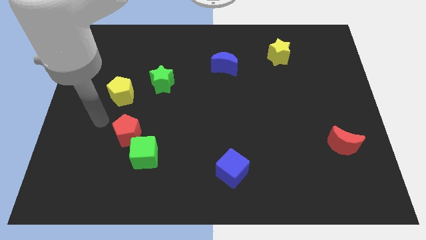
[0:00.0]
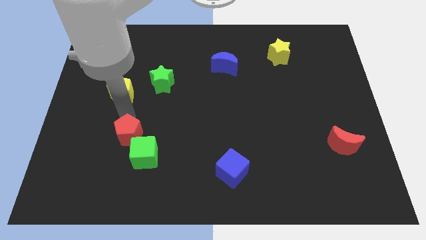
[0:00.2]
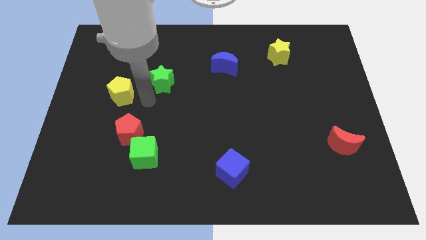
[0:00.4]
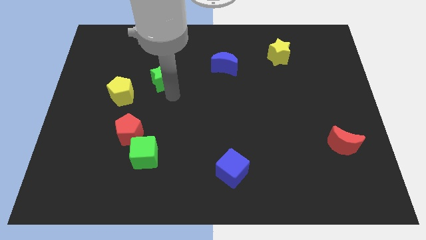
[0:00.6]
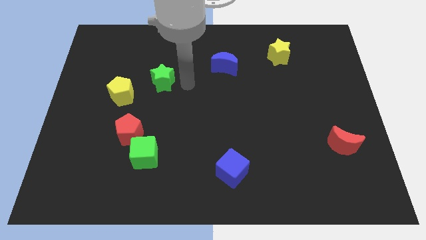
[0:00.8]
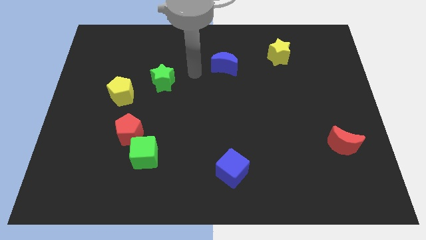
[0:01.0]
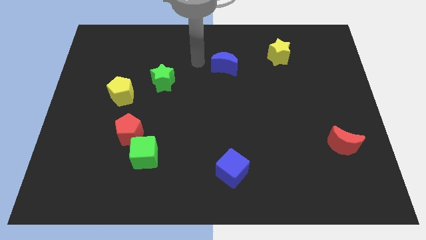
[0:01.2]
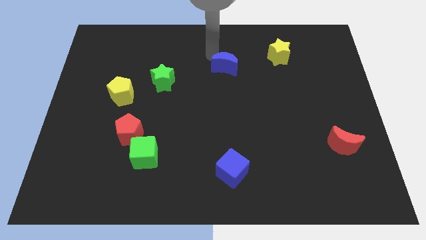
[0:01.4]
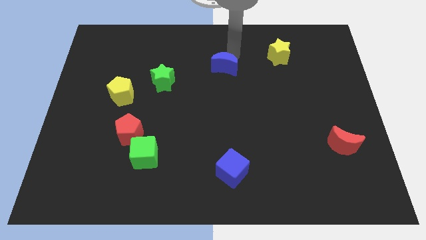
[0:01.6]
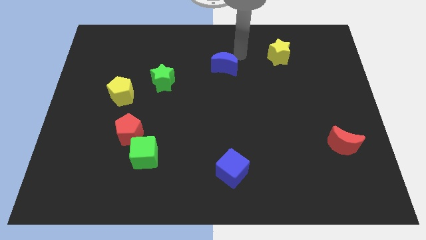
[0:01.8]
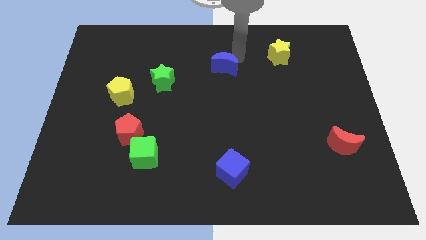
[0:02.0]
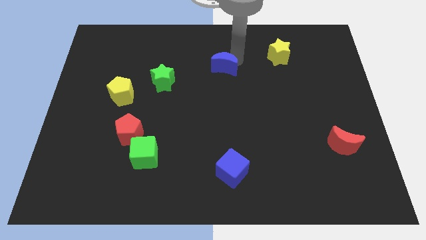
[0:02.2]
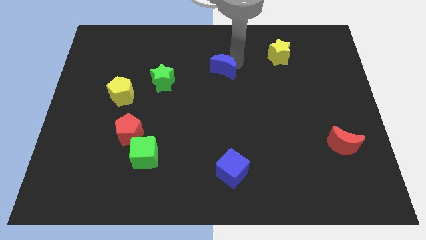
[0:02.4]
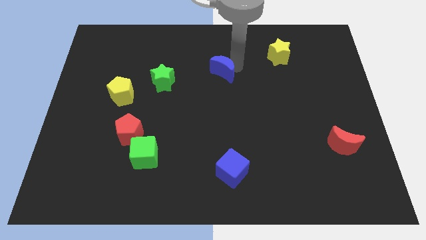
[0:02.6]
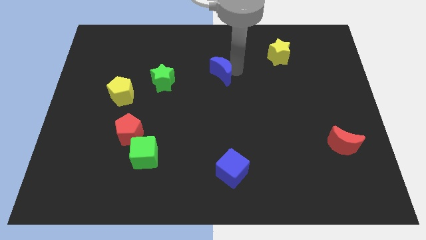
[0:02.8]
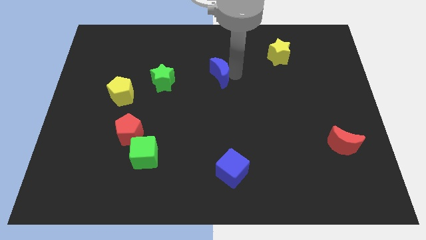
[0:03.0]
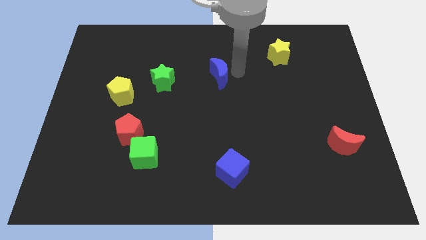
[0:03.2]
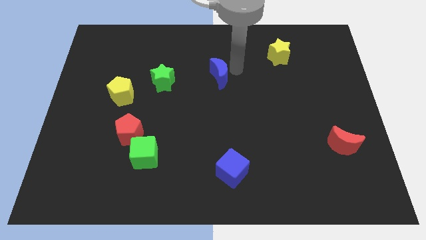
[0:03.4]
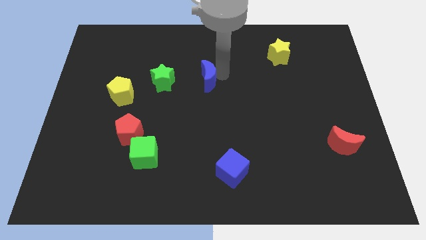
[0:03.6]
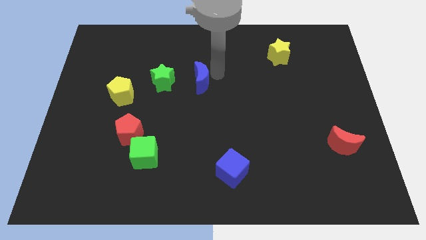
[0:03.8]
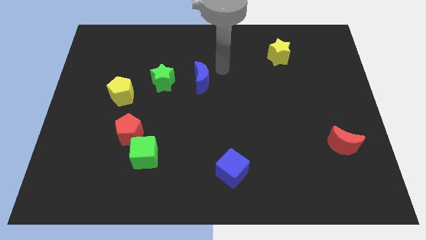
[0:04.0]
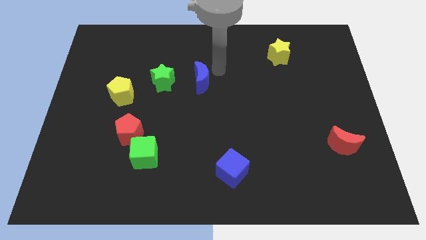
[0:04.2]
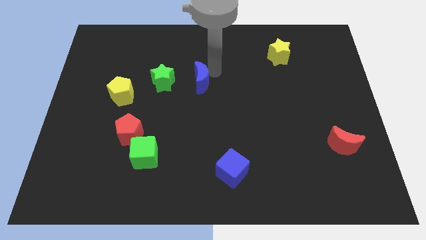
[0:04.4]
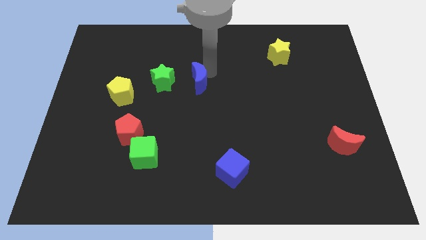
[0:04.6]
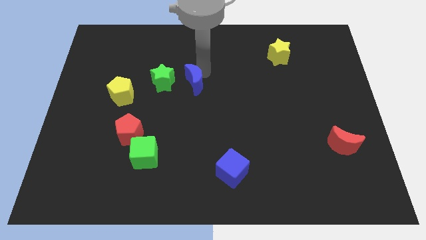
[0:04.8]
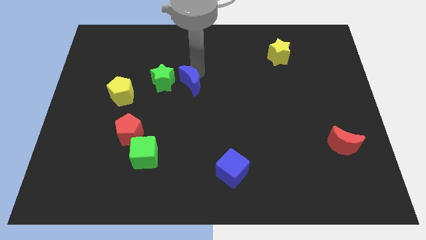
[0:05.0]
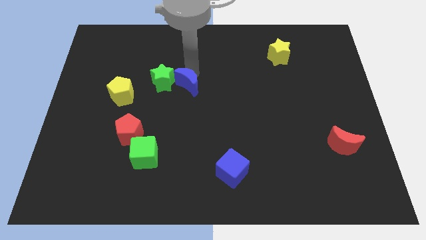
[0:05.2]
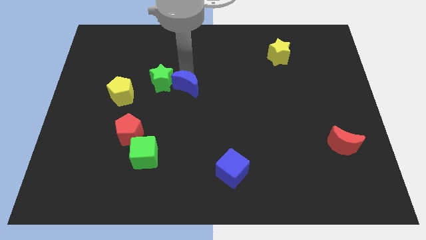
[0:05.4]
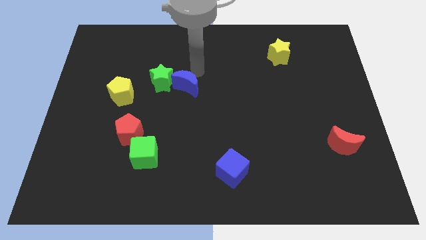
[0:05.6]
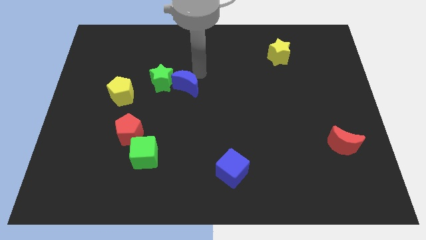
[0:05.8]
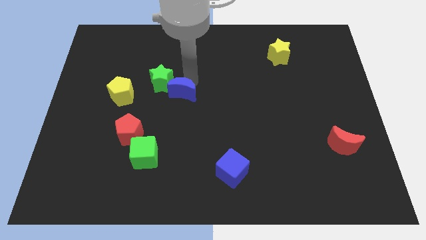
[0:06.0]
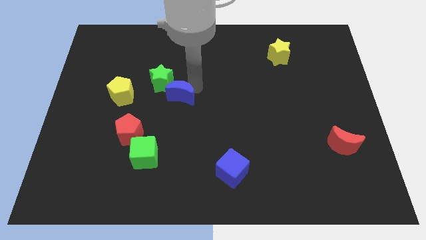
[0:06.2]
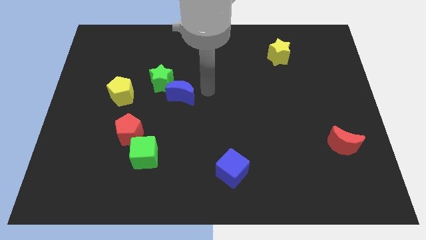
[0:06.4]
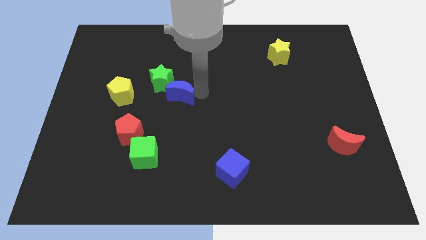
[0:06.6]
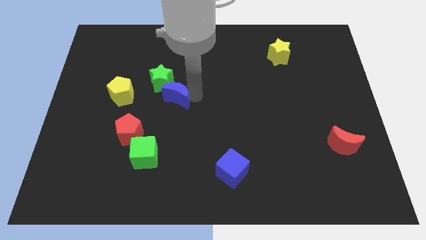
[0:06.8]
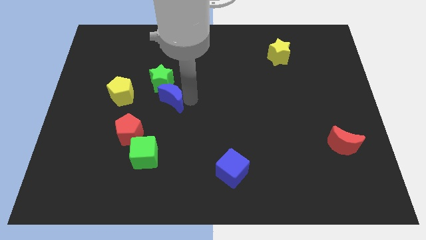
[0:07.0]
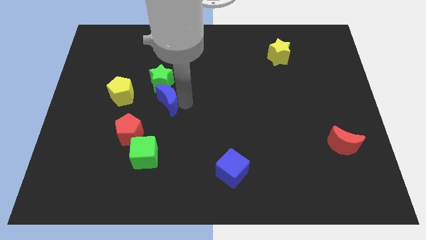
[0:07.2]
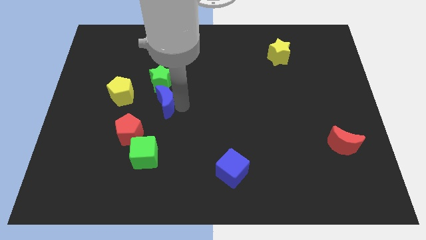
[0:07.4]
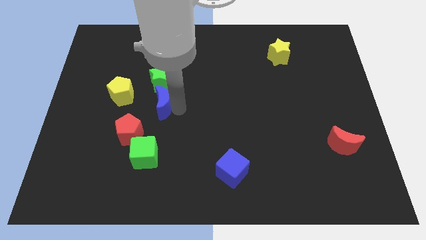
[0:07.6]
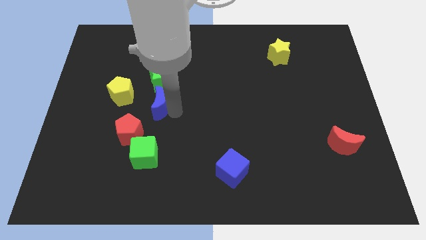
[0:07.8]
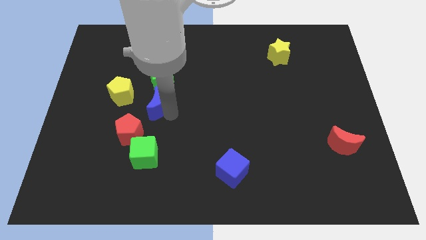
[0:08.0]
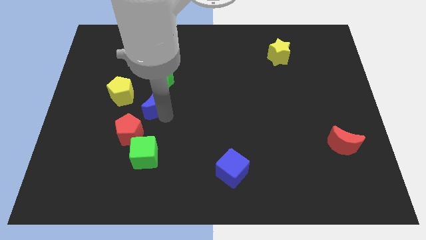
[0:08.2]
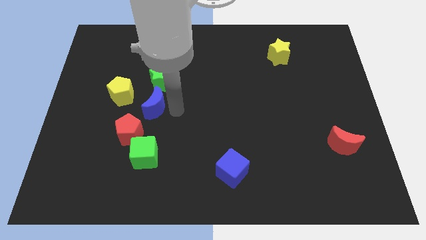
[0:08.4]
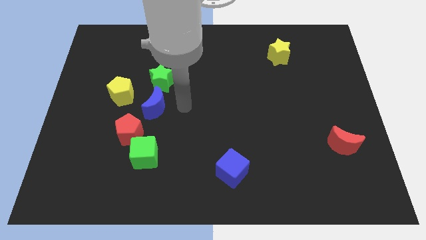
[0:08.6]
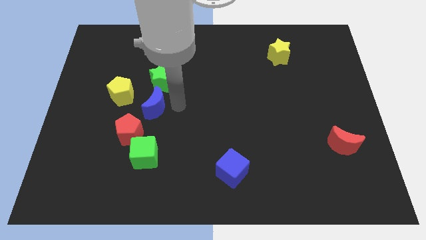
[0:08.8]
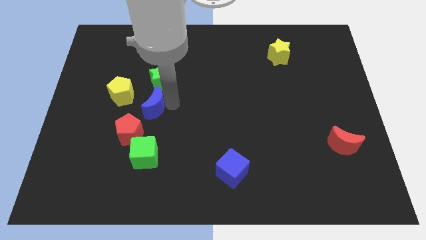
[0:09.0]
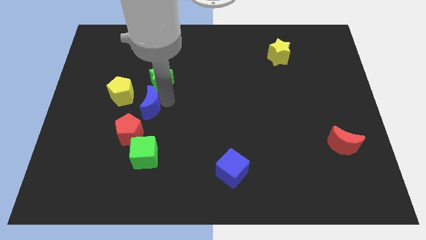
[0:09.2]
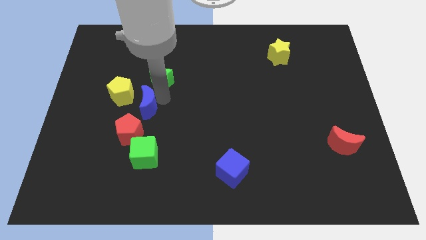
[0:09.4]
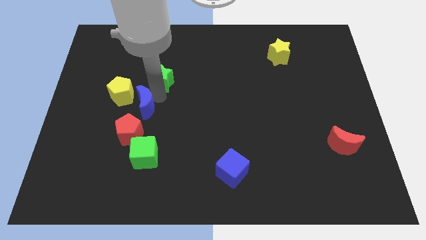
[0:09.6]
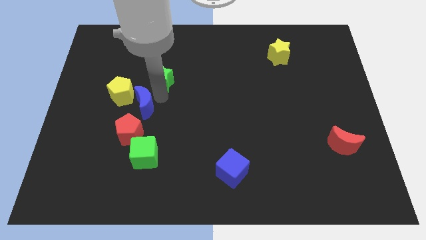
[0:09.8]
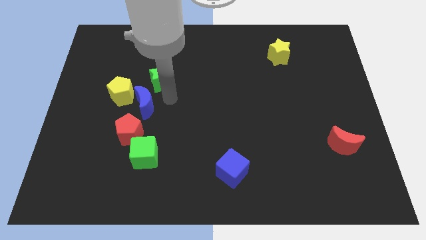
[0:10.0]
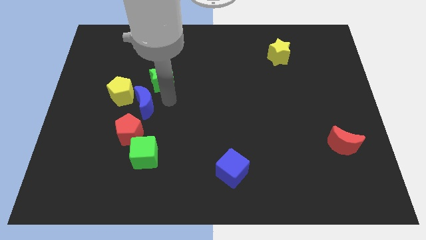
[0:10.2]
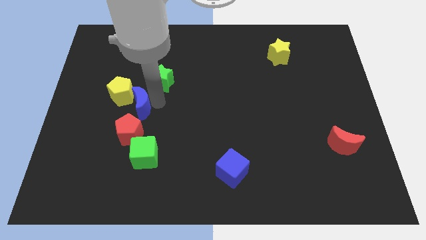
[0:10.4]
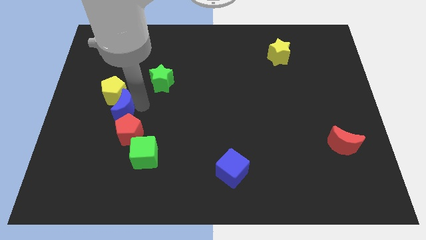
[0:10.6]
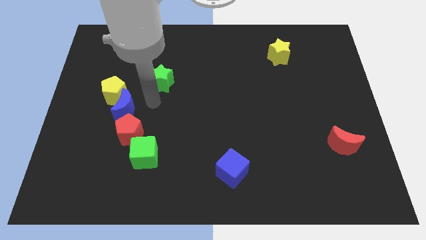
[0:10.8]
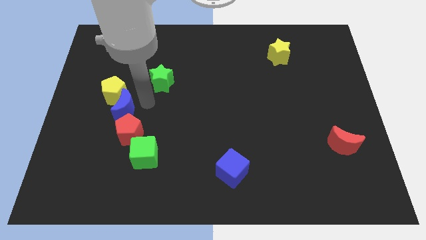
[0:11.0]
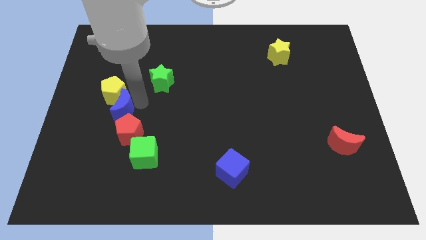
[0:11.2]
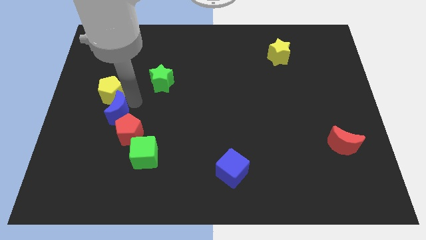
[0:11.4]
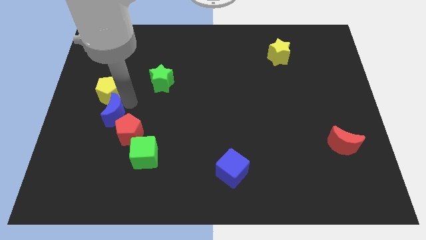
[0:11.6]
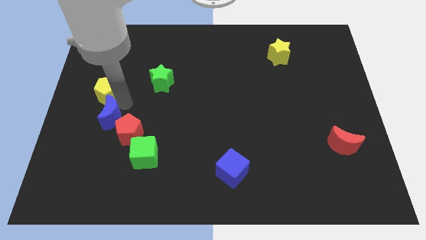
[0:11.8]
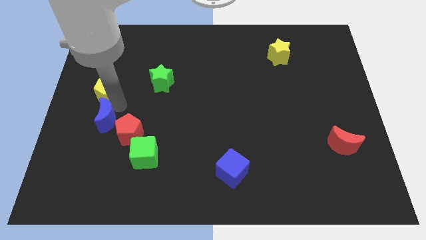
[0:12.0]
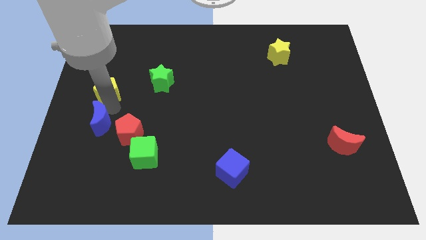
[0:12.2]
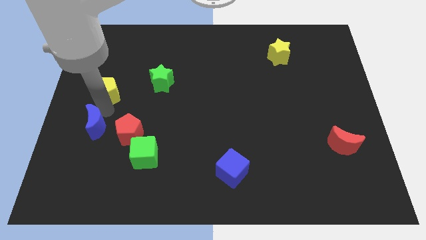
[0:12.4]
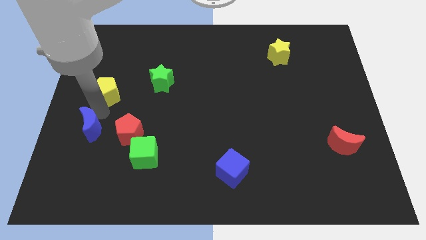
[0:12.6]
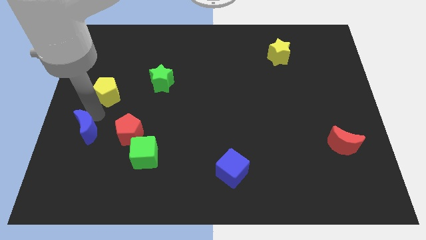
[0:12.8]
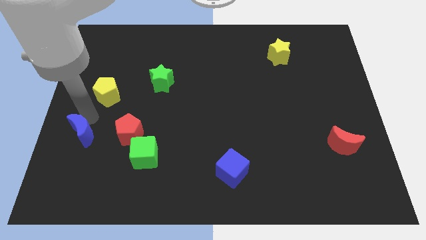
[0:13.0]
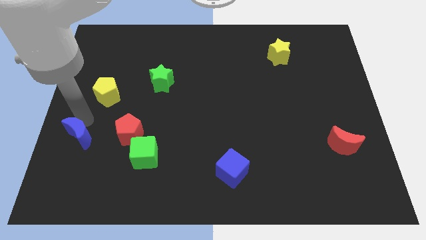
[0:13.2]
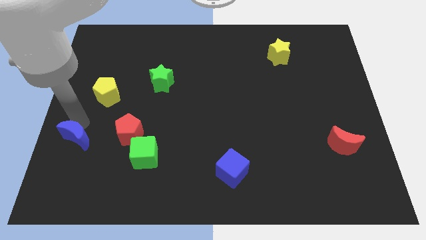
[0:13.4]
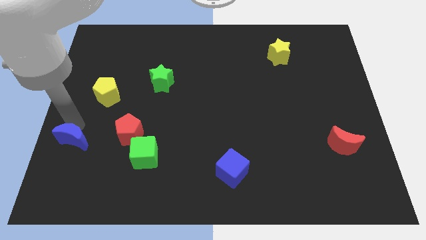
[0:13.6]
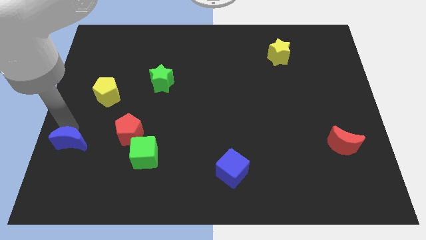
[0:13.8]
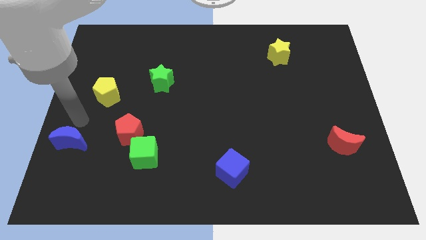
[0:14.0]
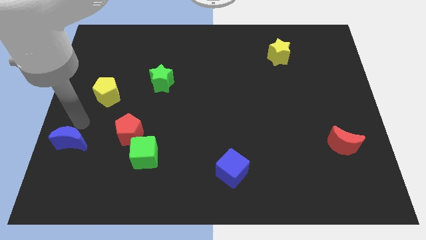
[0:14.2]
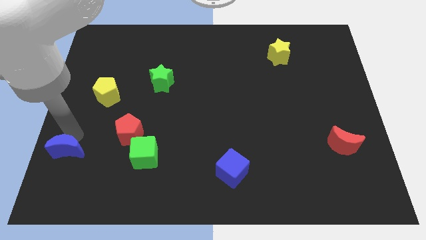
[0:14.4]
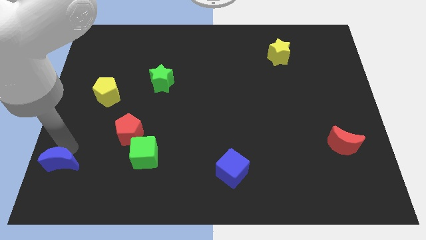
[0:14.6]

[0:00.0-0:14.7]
move the blue moon to the bottom left of the board
